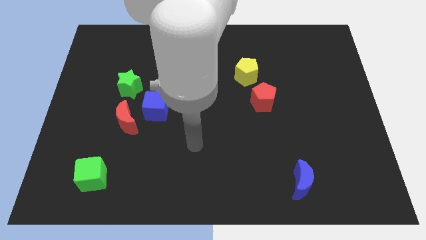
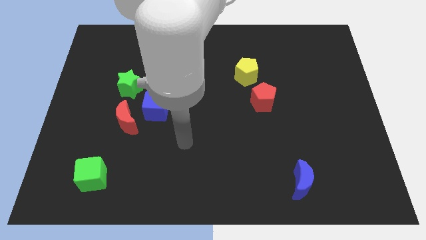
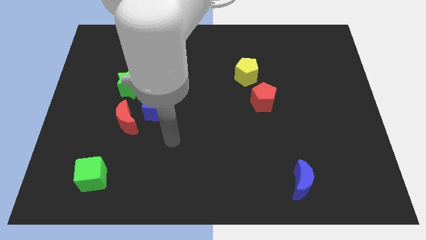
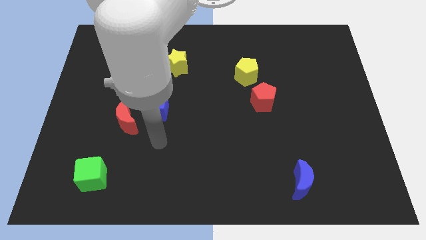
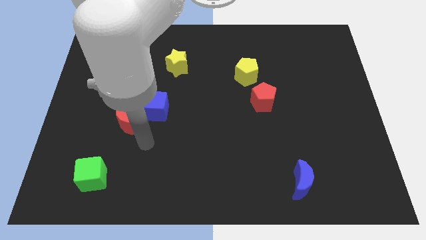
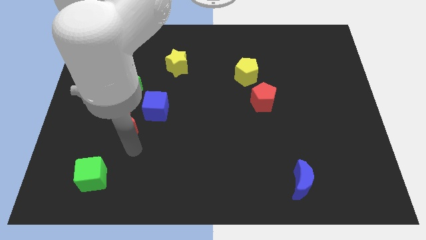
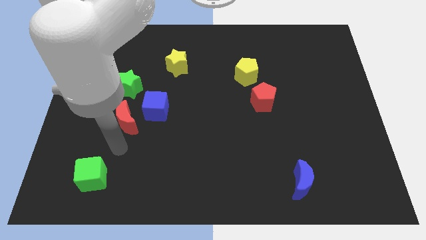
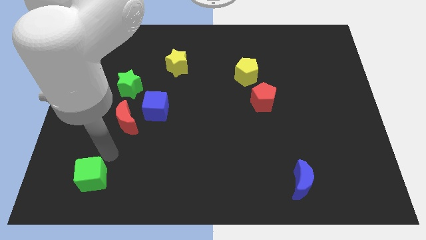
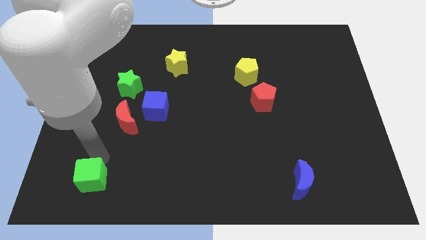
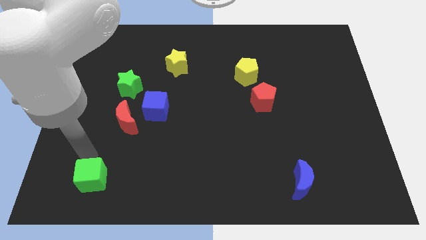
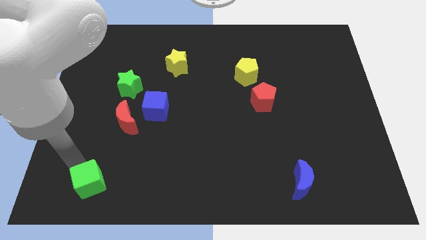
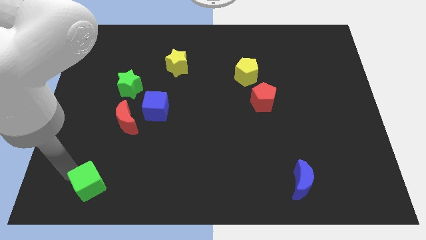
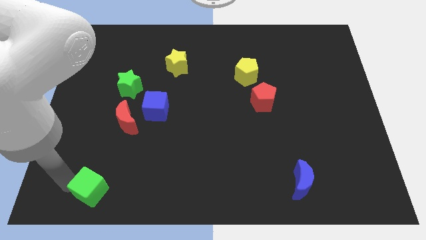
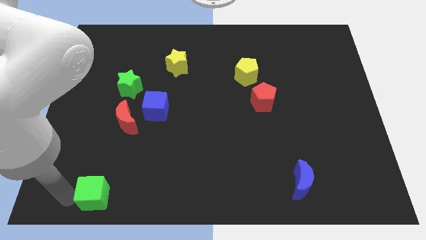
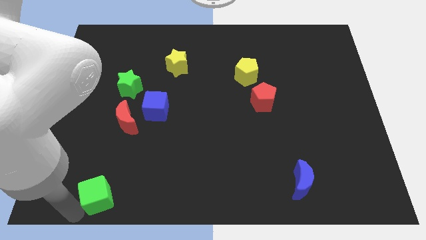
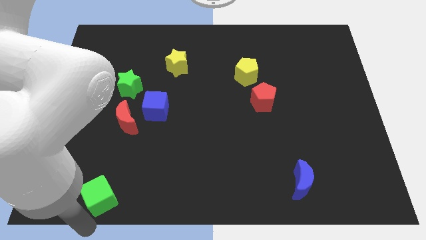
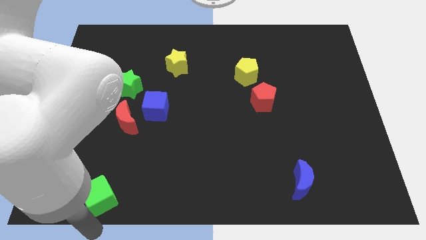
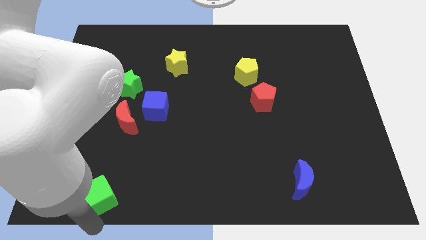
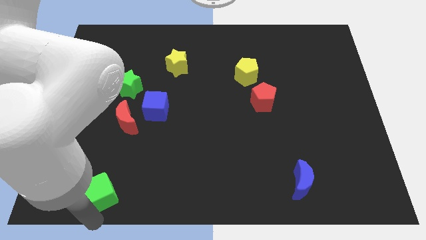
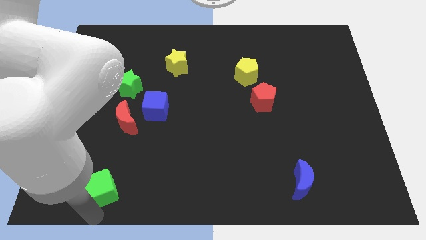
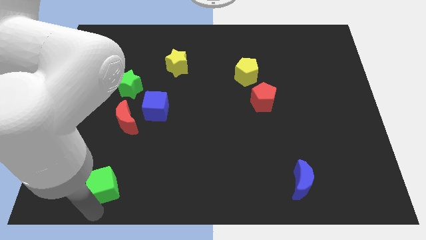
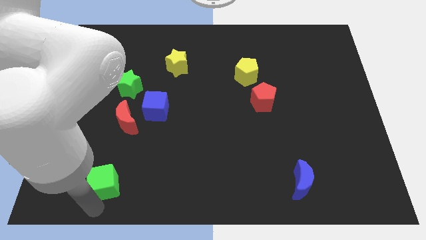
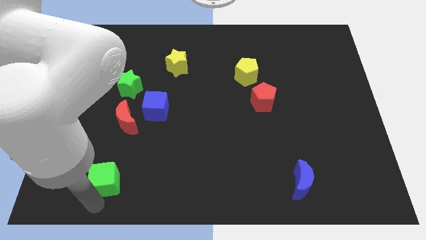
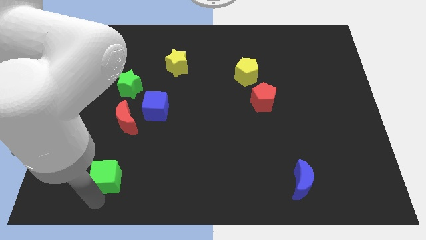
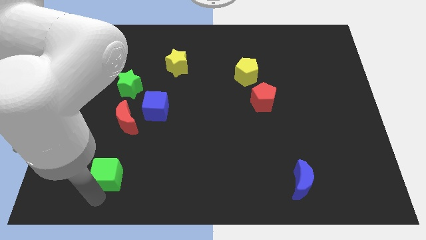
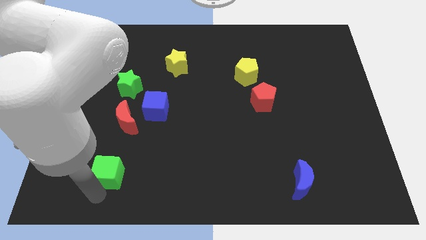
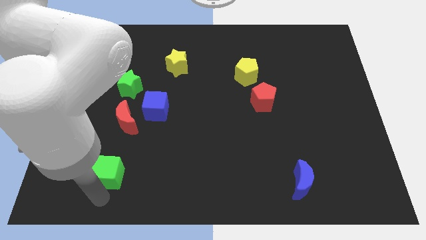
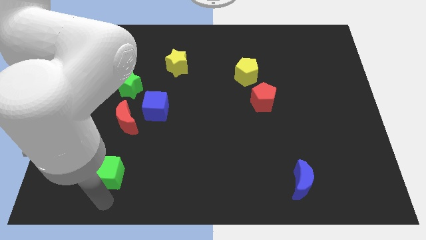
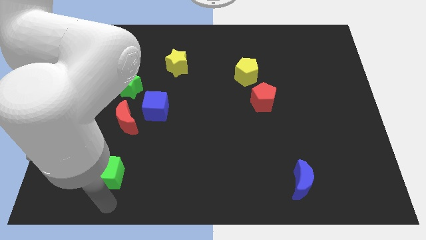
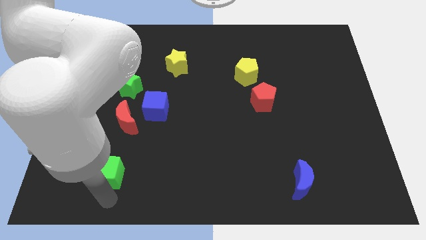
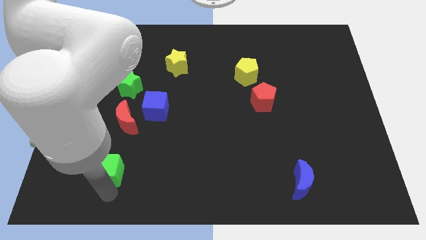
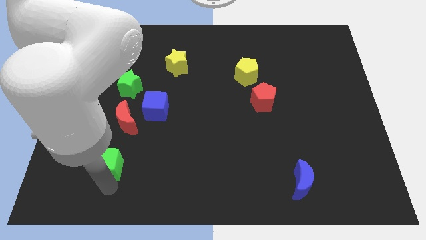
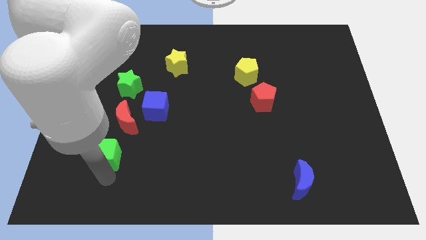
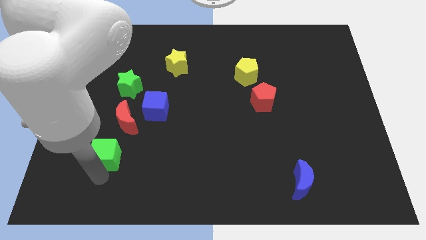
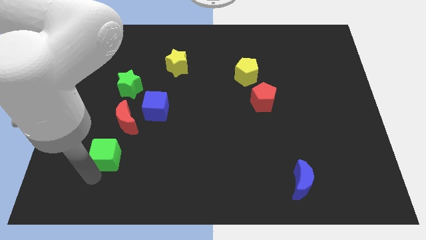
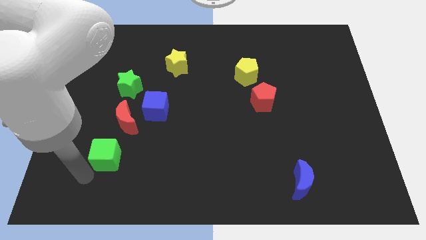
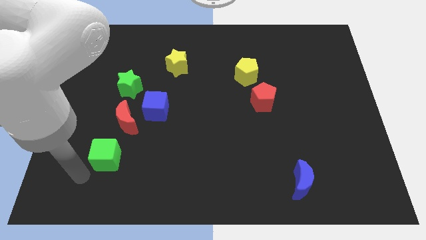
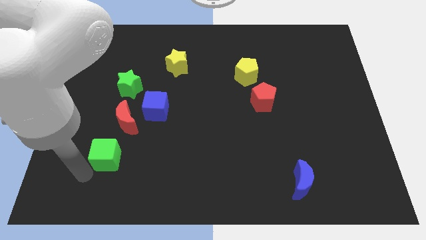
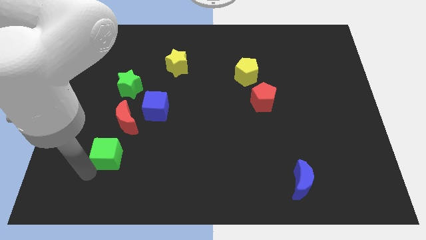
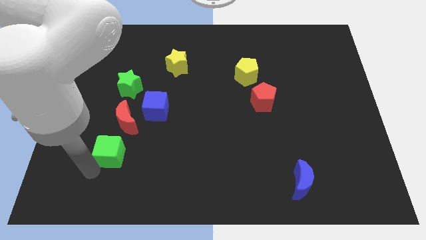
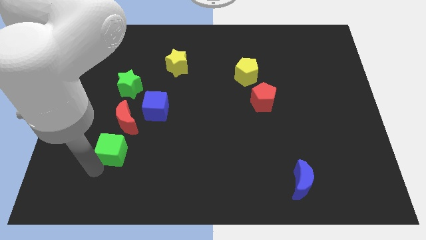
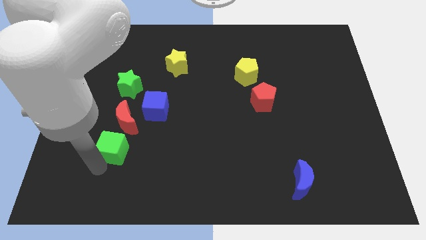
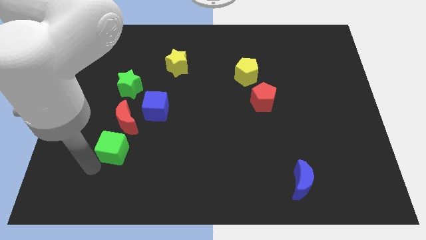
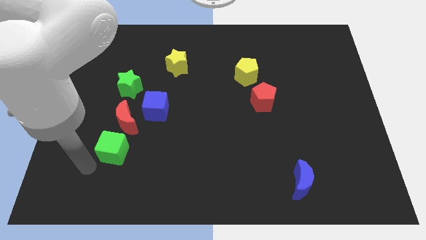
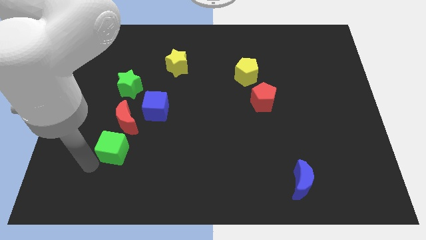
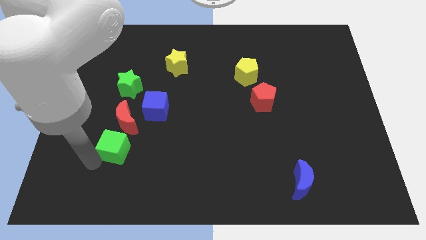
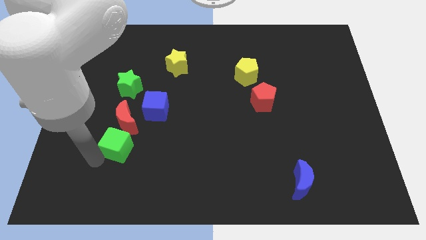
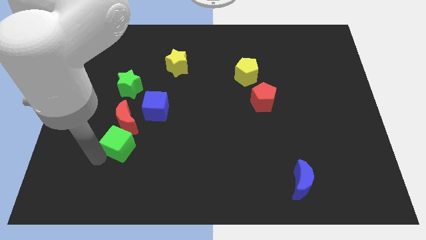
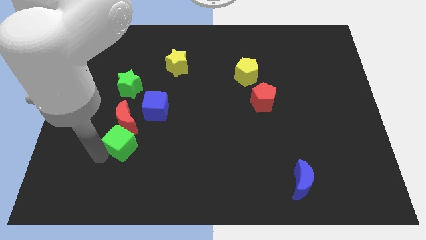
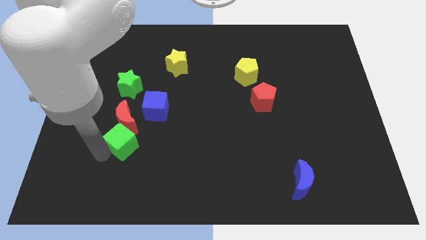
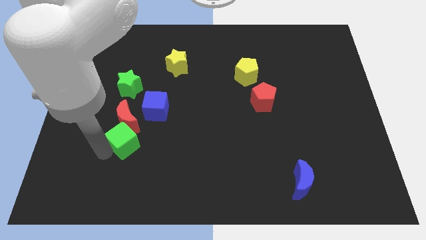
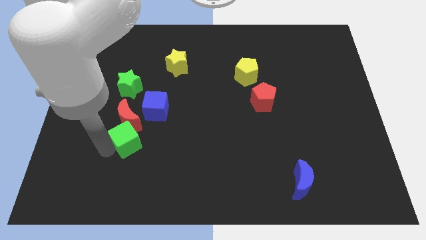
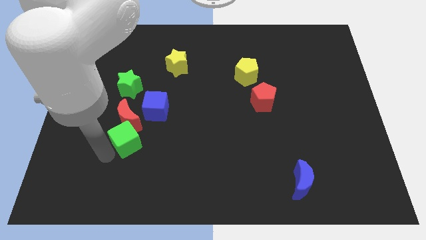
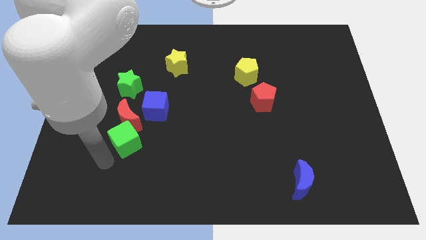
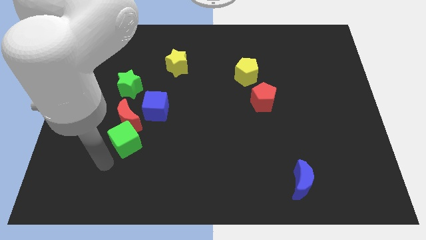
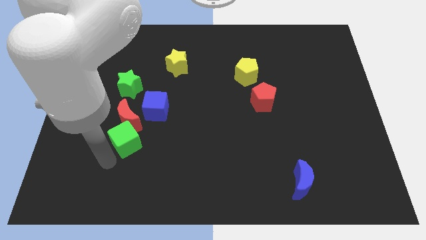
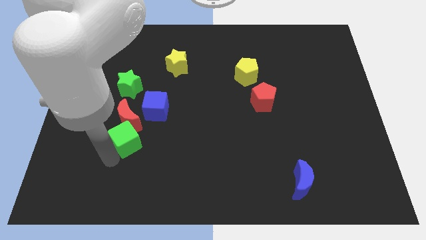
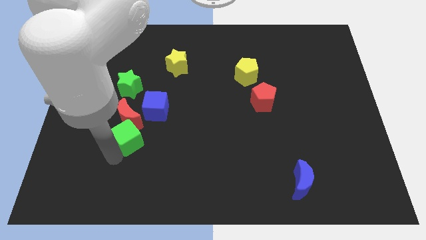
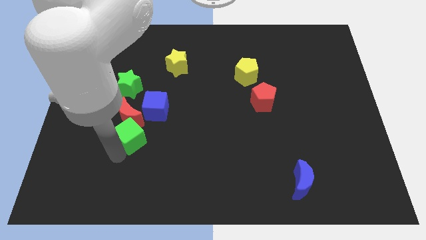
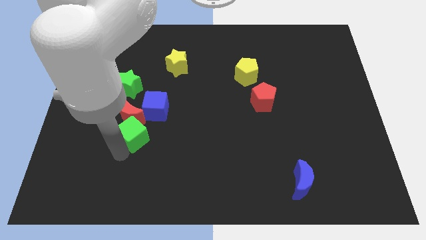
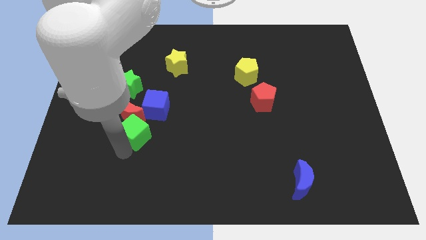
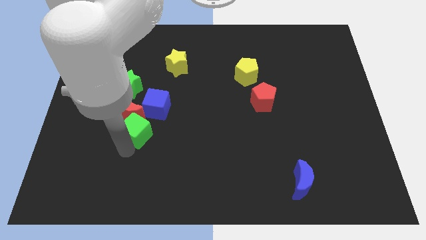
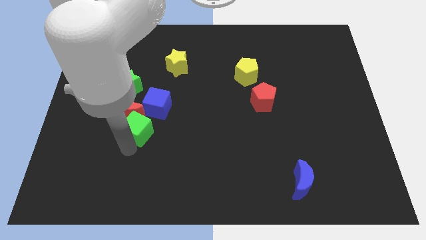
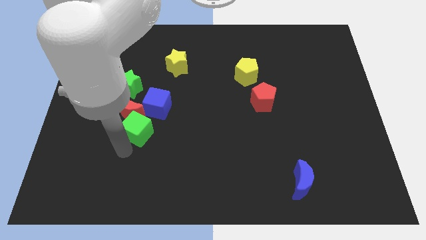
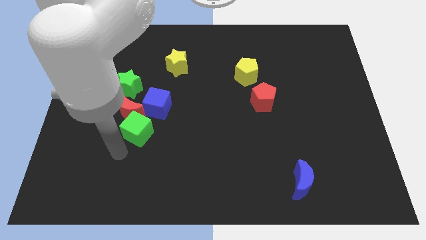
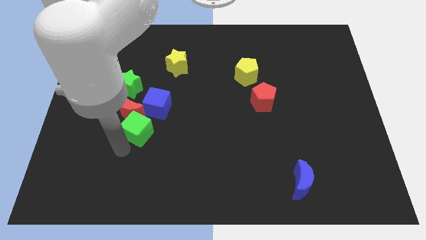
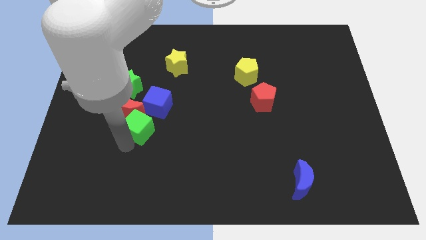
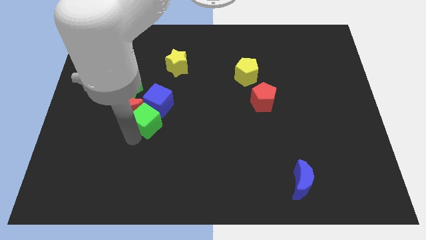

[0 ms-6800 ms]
move the green cube to the blue cube

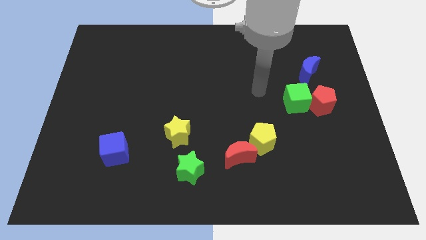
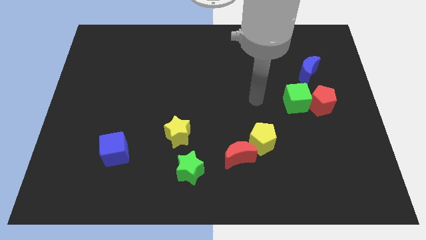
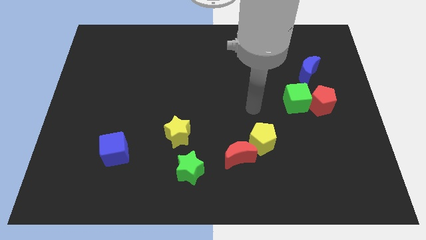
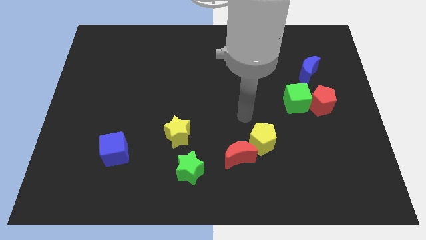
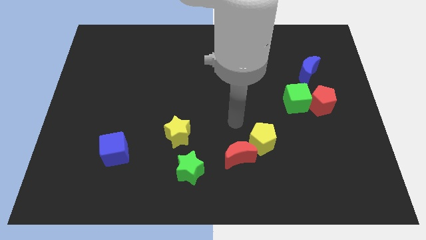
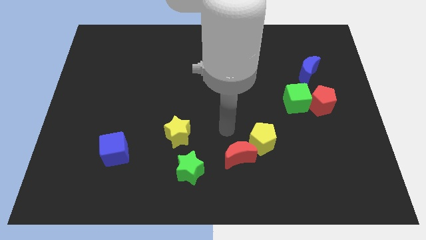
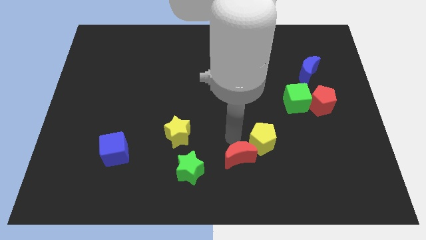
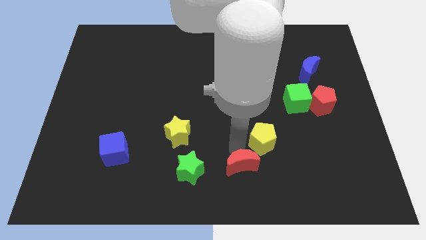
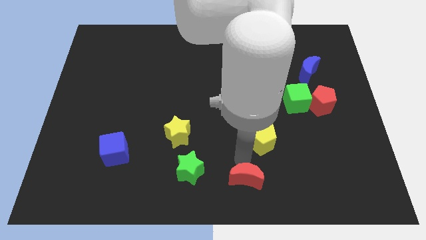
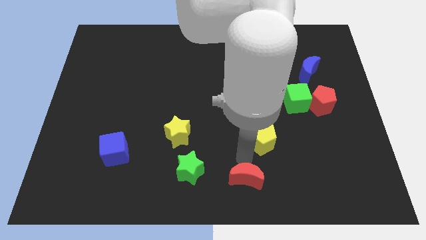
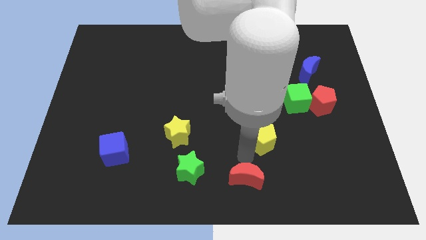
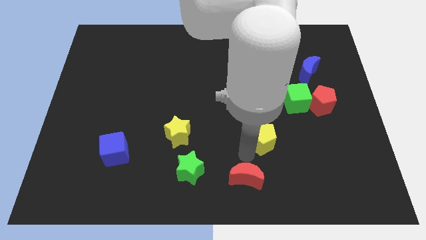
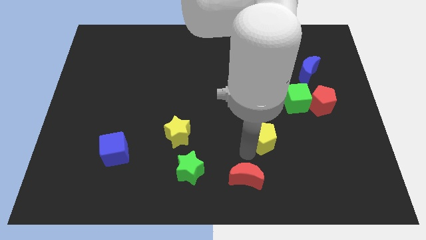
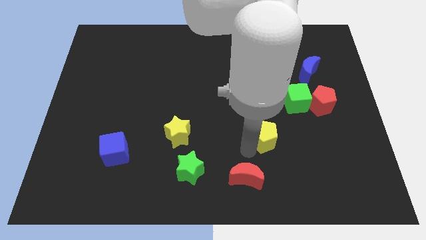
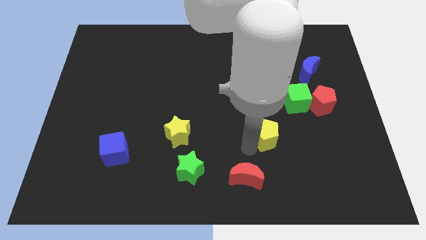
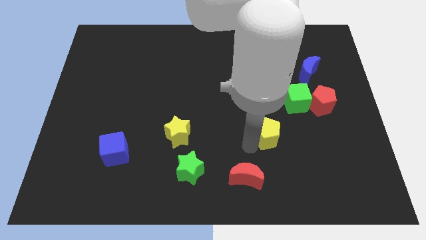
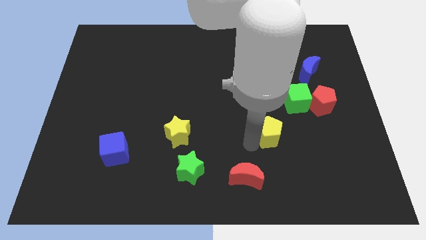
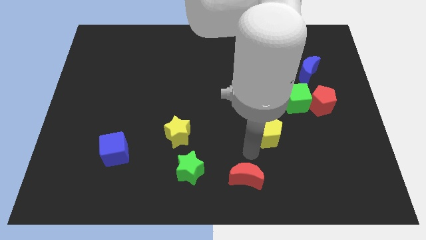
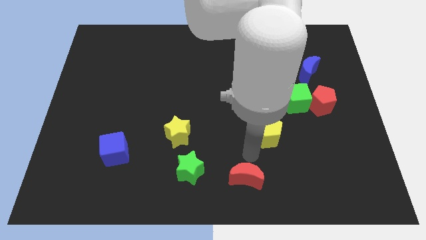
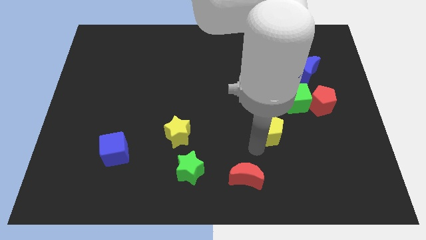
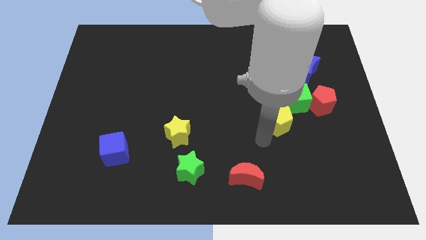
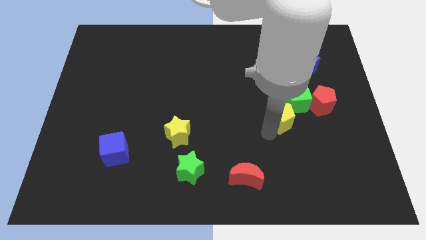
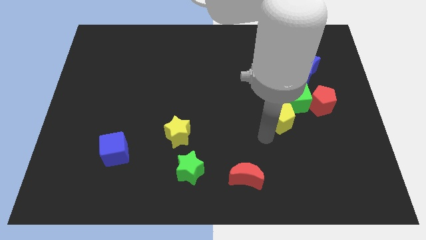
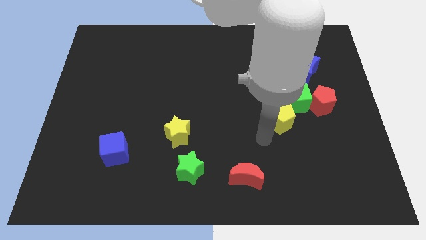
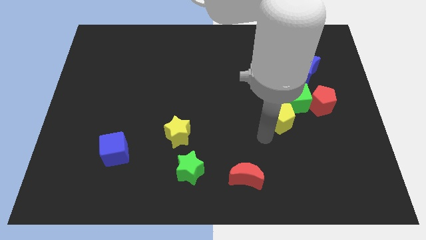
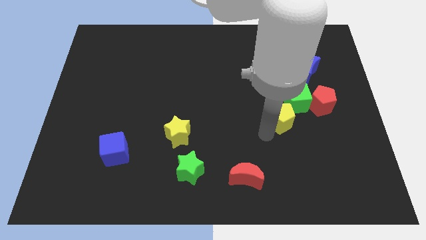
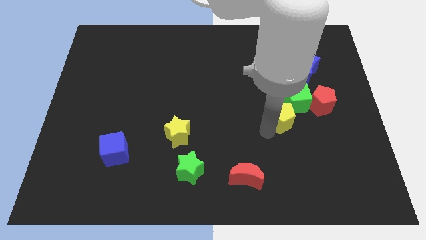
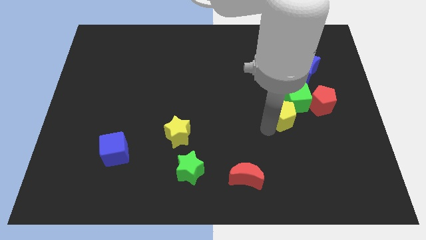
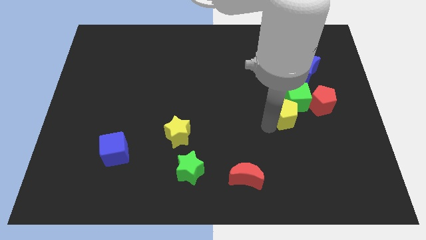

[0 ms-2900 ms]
put the yellow pentagon to the green cube
